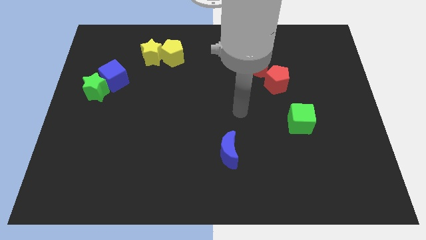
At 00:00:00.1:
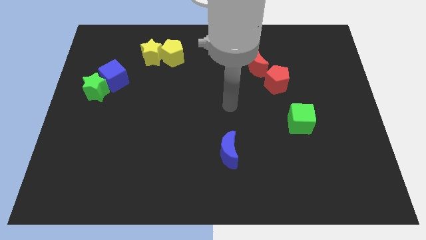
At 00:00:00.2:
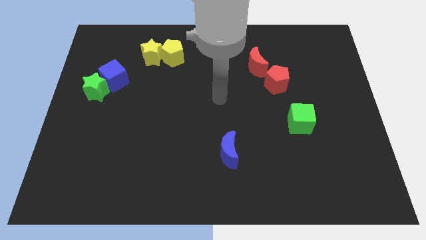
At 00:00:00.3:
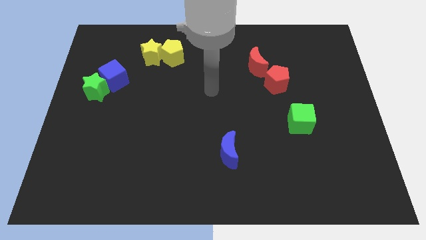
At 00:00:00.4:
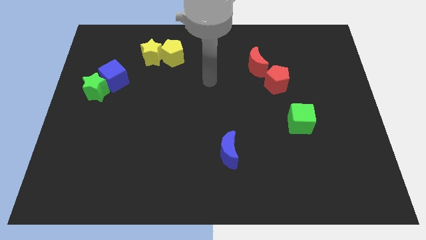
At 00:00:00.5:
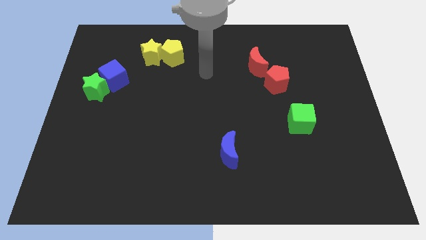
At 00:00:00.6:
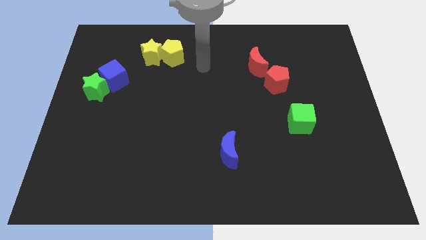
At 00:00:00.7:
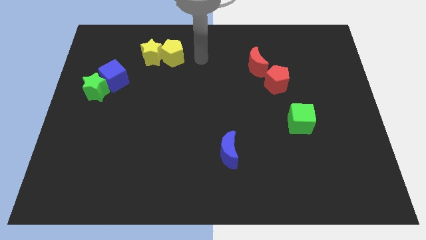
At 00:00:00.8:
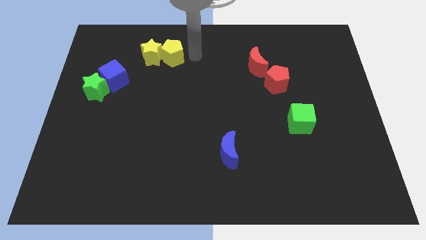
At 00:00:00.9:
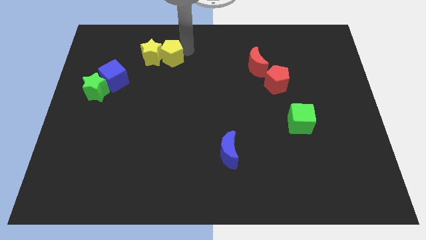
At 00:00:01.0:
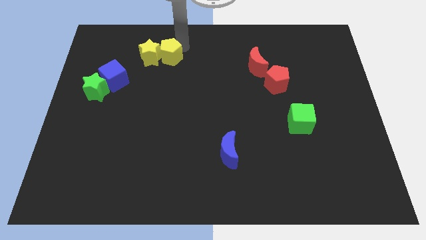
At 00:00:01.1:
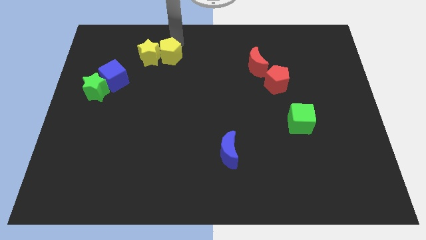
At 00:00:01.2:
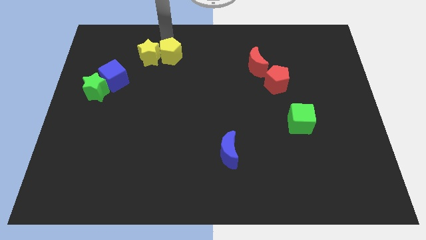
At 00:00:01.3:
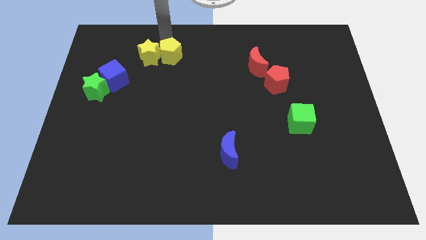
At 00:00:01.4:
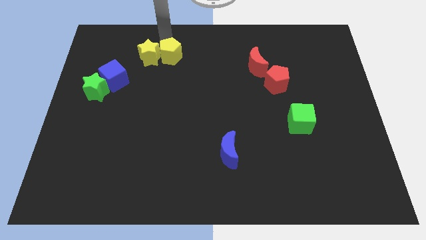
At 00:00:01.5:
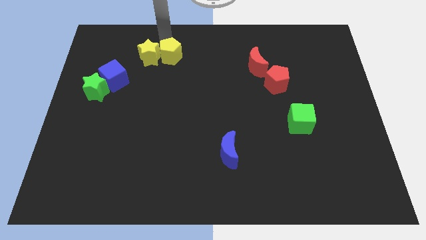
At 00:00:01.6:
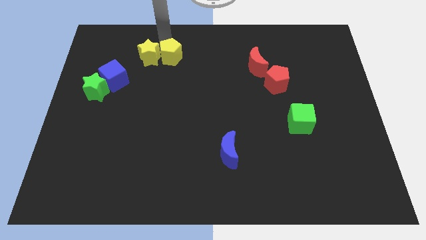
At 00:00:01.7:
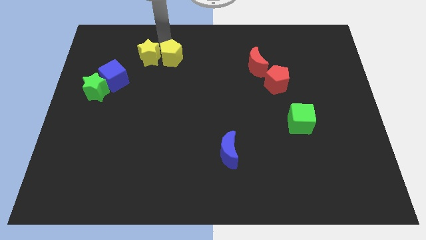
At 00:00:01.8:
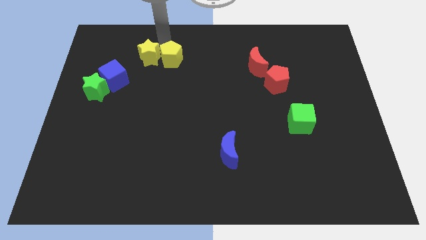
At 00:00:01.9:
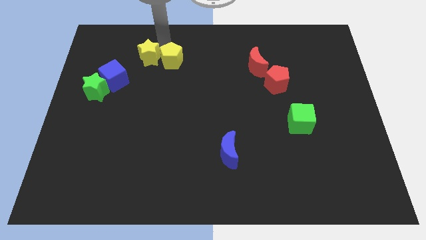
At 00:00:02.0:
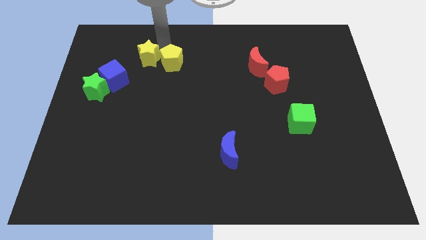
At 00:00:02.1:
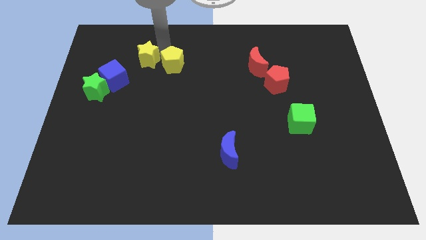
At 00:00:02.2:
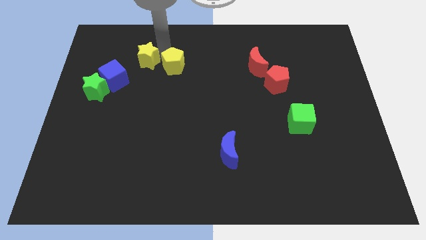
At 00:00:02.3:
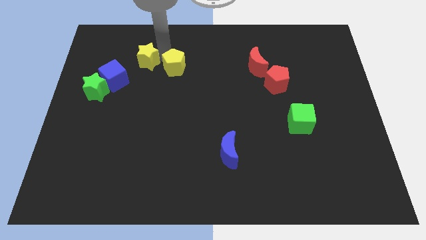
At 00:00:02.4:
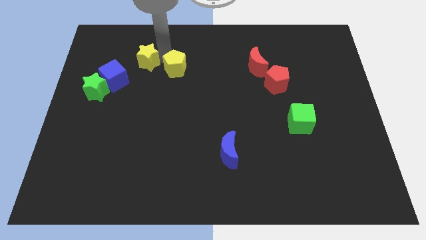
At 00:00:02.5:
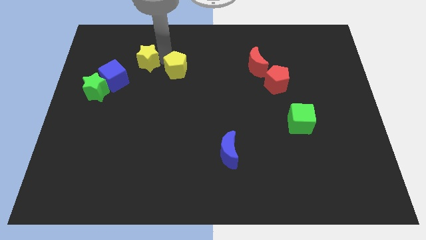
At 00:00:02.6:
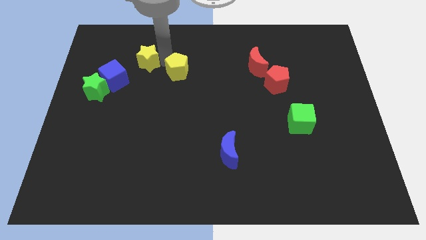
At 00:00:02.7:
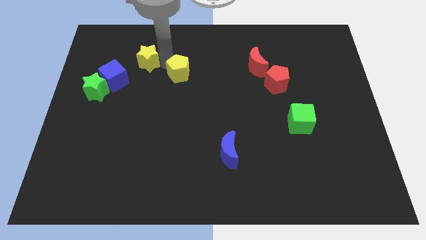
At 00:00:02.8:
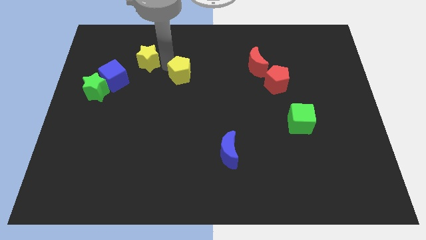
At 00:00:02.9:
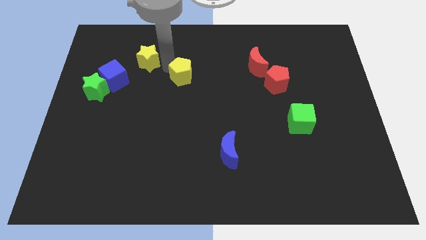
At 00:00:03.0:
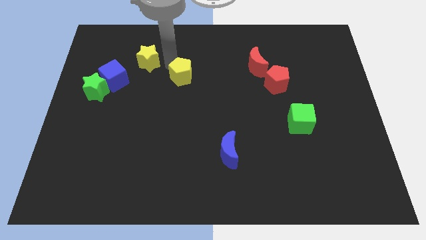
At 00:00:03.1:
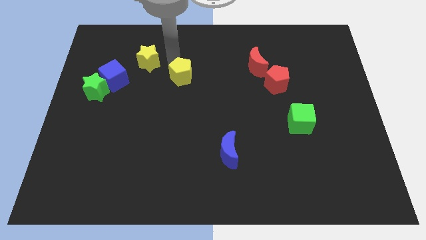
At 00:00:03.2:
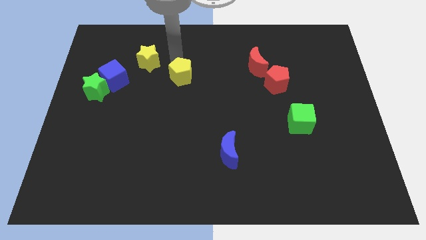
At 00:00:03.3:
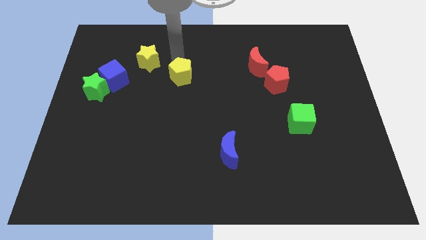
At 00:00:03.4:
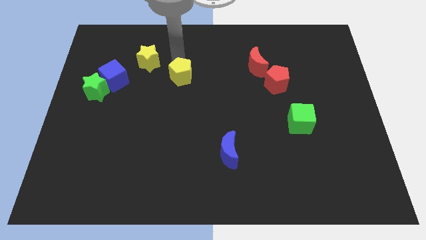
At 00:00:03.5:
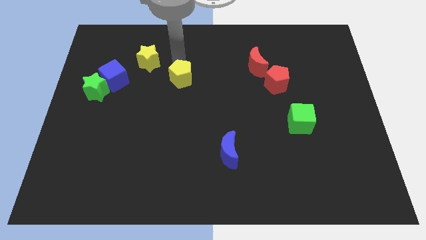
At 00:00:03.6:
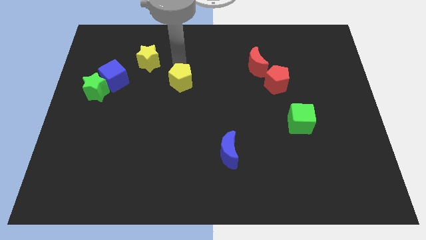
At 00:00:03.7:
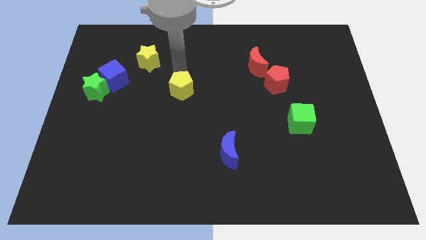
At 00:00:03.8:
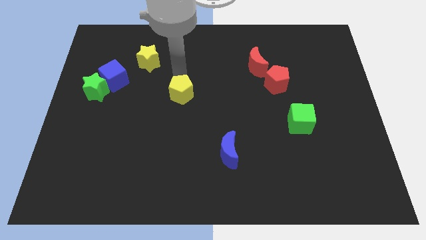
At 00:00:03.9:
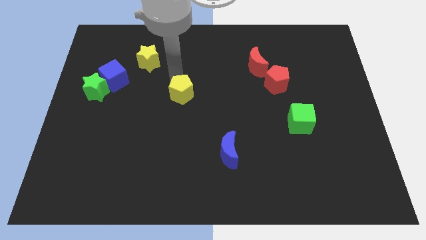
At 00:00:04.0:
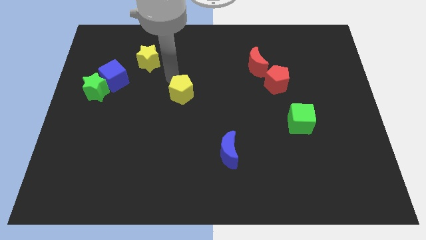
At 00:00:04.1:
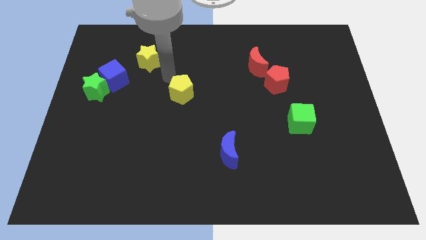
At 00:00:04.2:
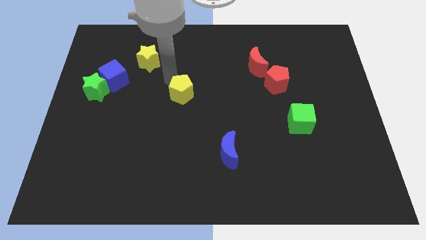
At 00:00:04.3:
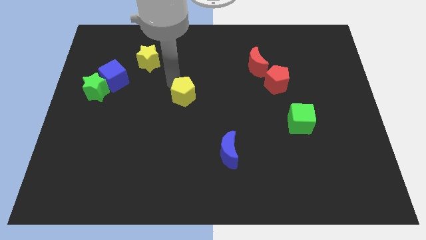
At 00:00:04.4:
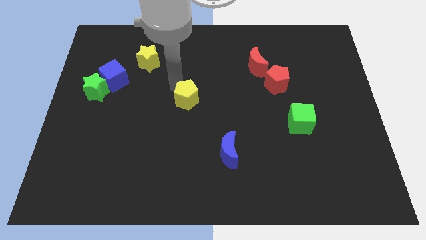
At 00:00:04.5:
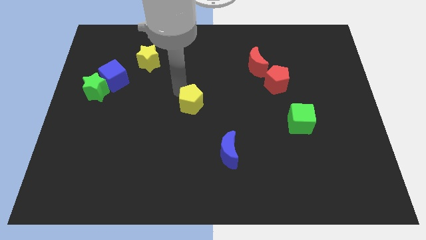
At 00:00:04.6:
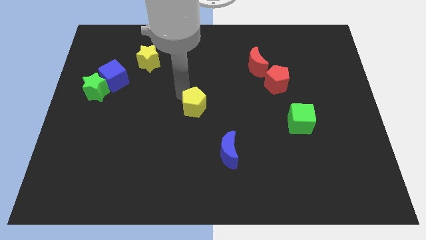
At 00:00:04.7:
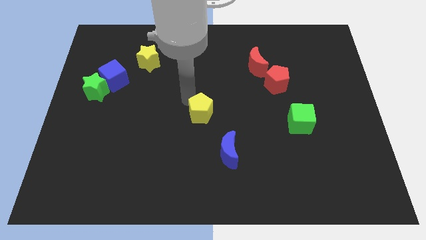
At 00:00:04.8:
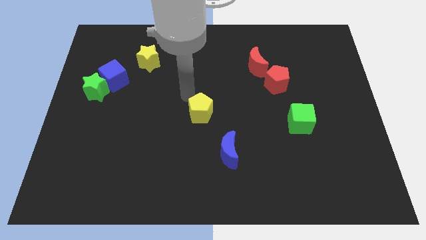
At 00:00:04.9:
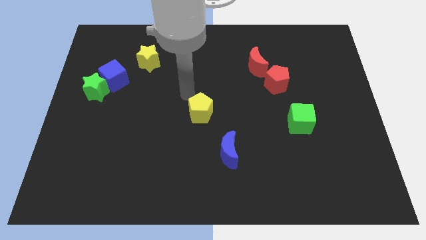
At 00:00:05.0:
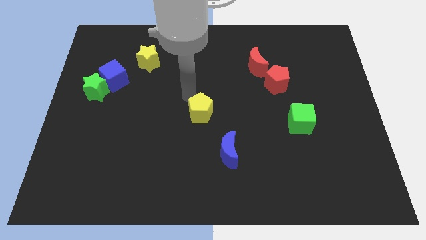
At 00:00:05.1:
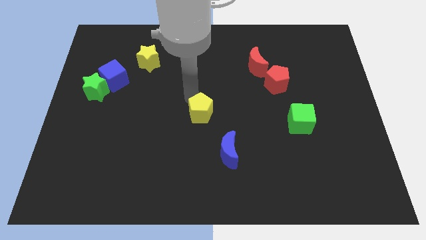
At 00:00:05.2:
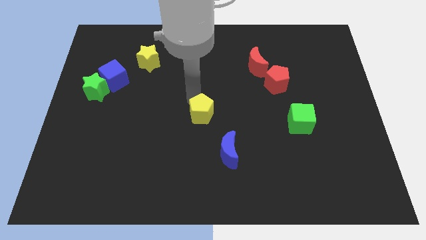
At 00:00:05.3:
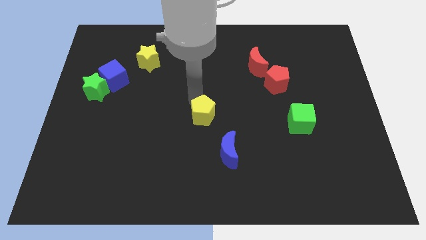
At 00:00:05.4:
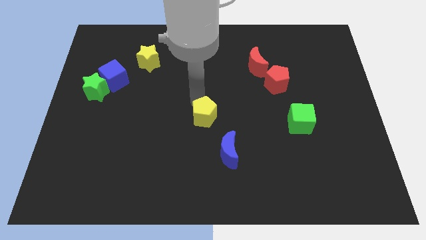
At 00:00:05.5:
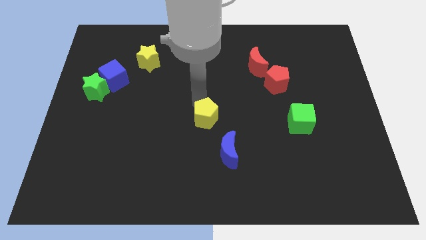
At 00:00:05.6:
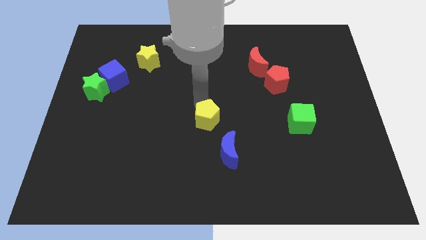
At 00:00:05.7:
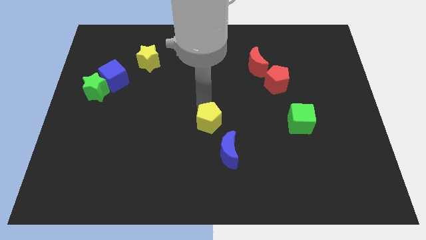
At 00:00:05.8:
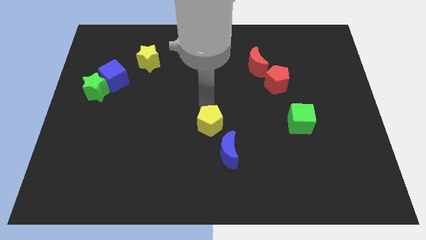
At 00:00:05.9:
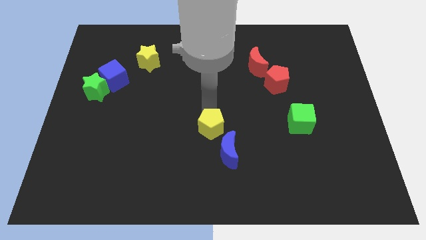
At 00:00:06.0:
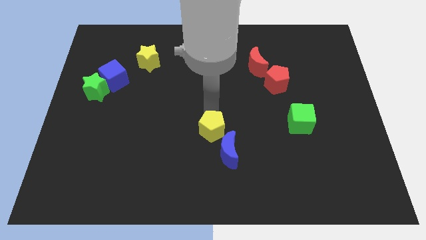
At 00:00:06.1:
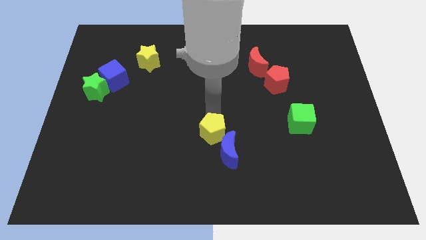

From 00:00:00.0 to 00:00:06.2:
move the yellow pentagon close to the blue moon

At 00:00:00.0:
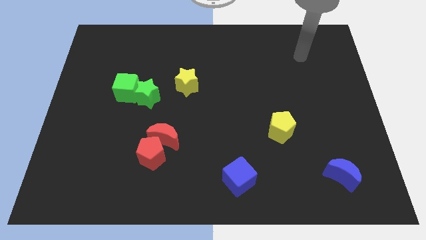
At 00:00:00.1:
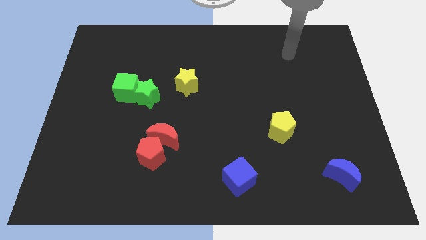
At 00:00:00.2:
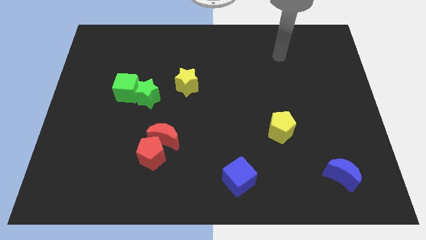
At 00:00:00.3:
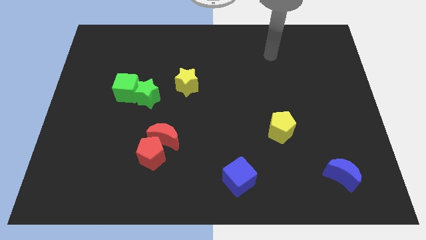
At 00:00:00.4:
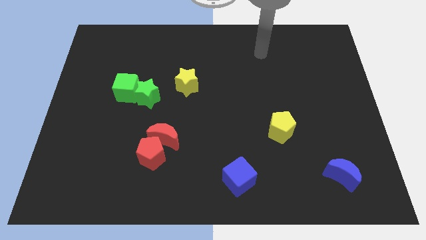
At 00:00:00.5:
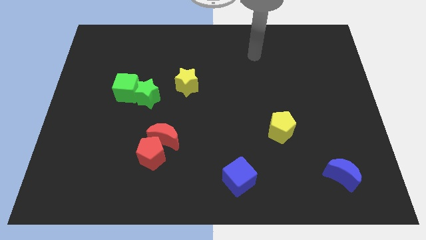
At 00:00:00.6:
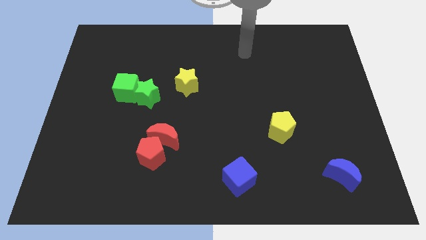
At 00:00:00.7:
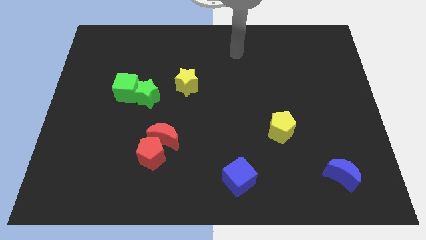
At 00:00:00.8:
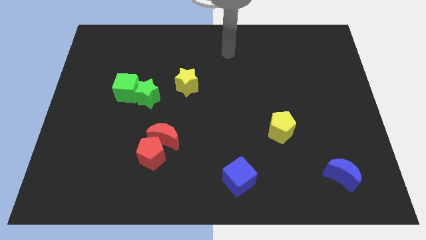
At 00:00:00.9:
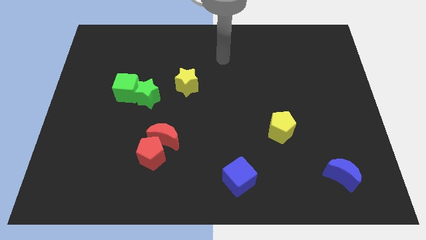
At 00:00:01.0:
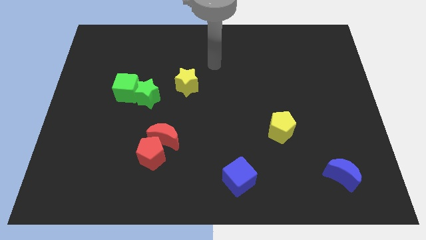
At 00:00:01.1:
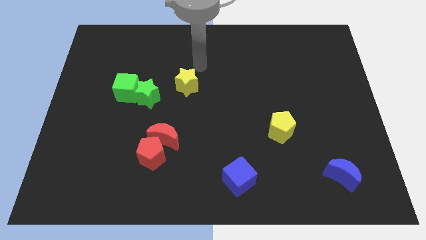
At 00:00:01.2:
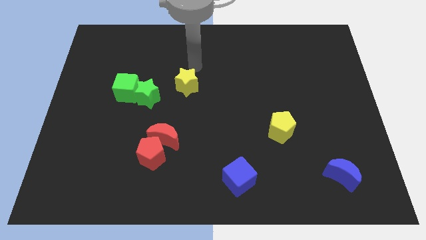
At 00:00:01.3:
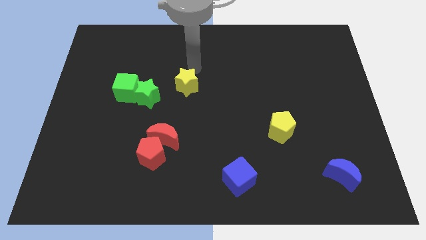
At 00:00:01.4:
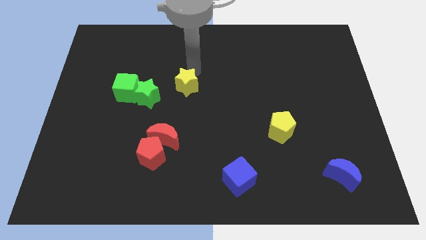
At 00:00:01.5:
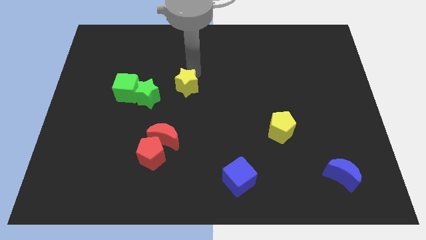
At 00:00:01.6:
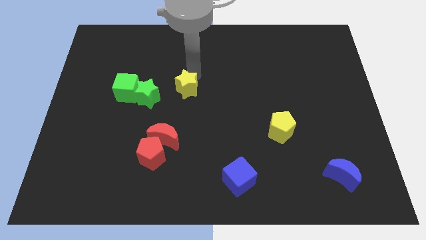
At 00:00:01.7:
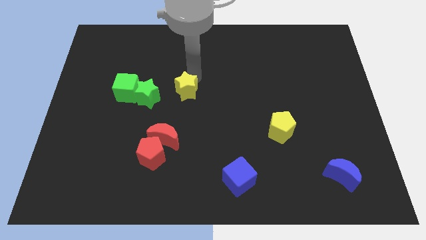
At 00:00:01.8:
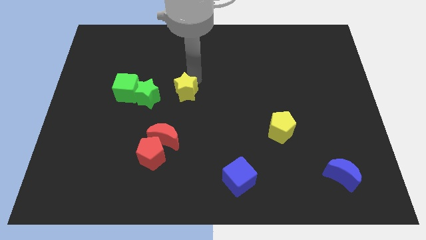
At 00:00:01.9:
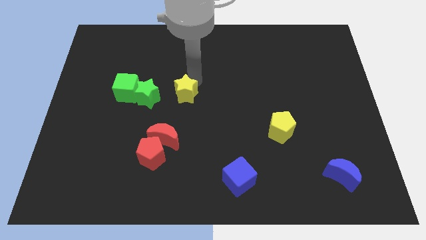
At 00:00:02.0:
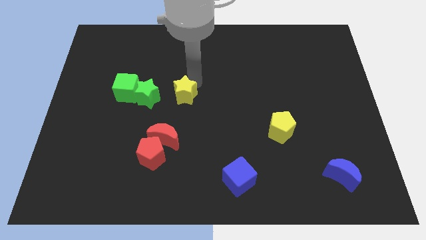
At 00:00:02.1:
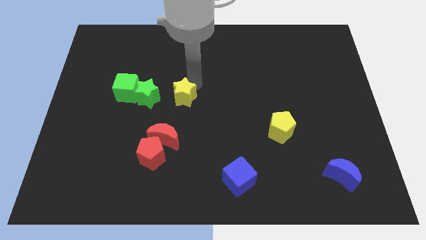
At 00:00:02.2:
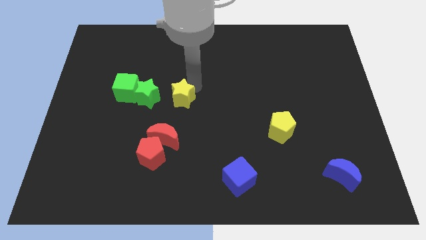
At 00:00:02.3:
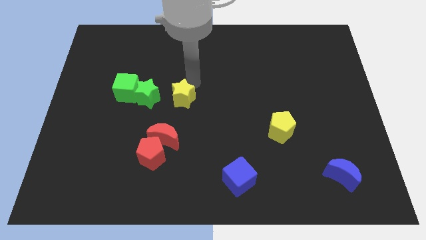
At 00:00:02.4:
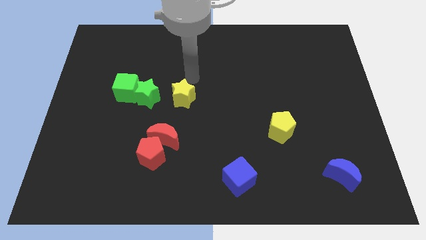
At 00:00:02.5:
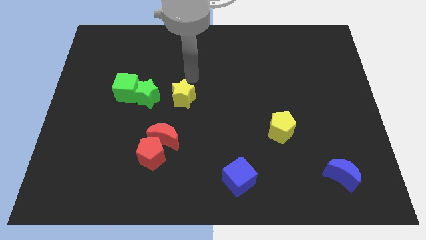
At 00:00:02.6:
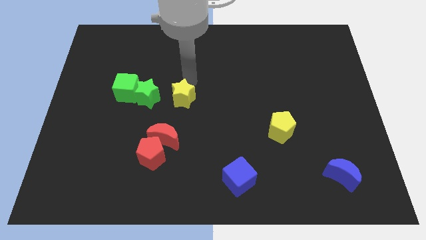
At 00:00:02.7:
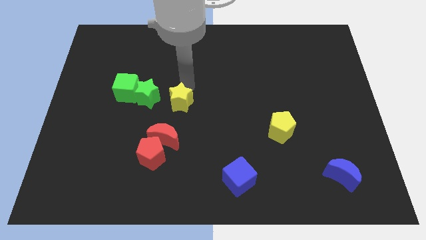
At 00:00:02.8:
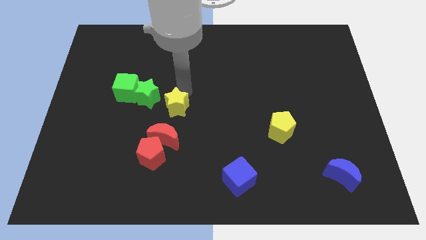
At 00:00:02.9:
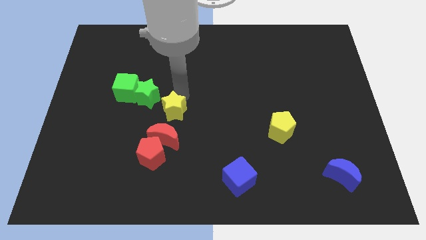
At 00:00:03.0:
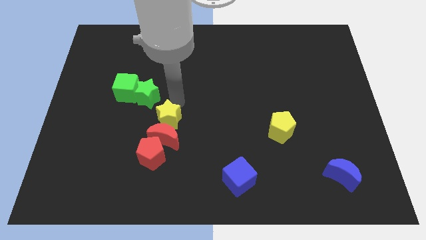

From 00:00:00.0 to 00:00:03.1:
put the yellow star close to the red moon
